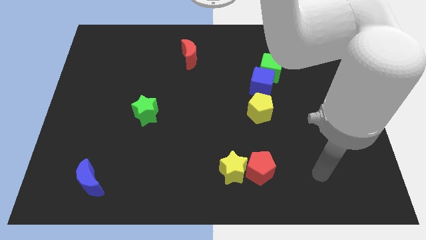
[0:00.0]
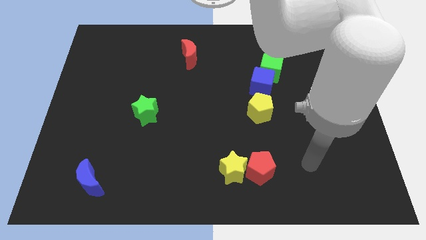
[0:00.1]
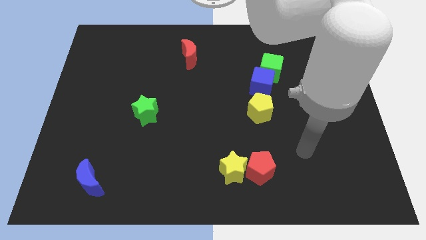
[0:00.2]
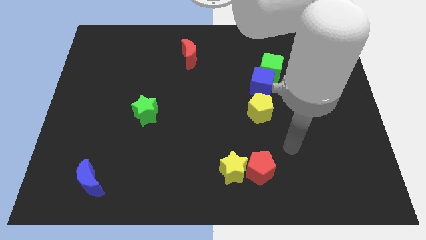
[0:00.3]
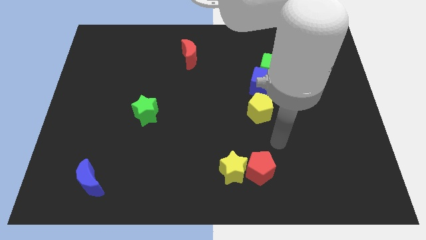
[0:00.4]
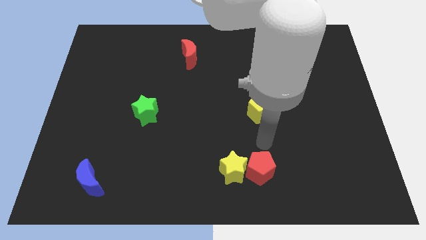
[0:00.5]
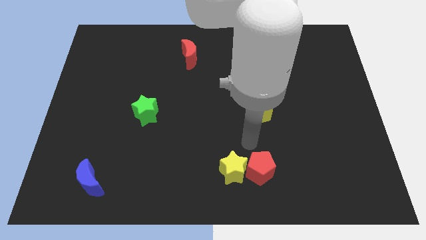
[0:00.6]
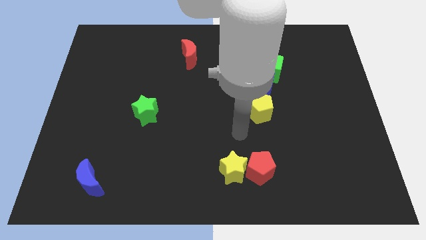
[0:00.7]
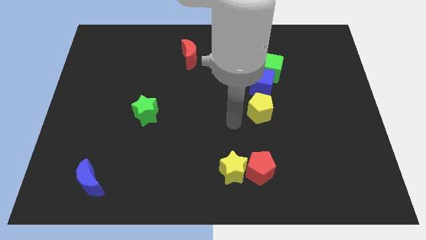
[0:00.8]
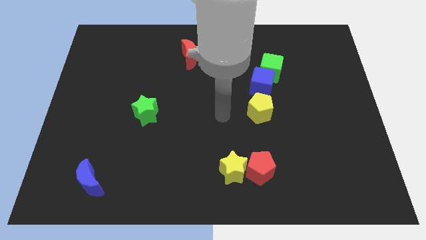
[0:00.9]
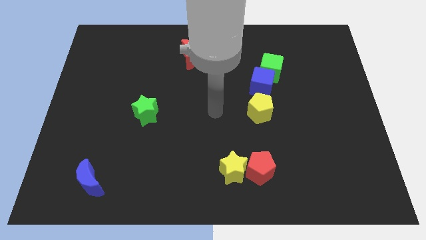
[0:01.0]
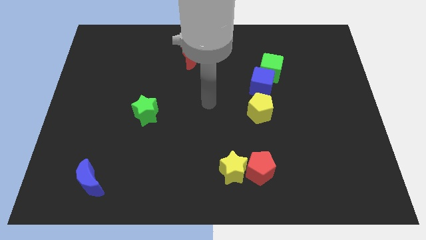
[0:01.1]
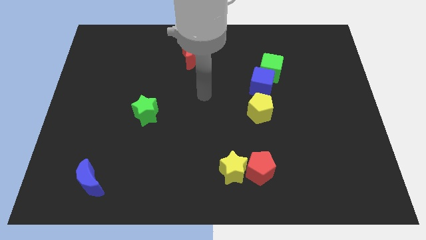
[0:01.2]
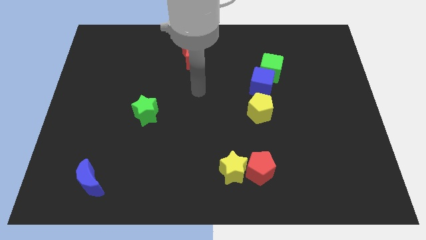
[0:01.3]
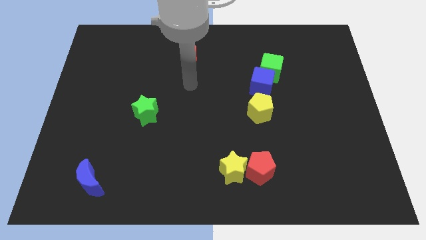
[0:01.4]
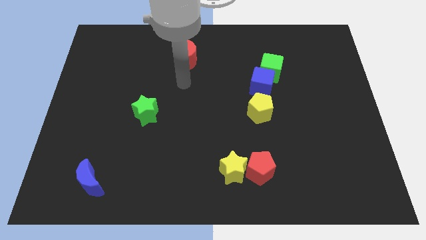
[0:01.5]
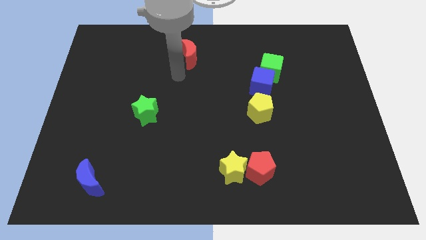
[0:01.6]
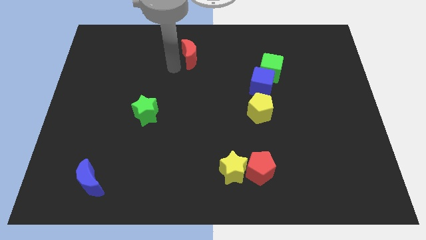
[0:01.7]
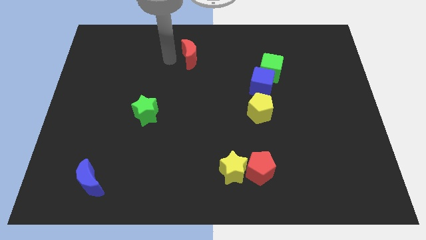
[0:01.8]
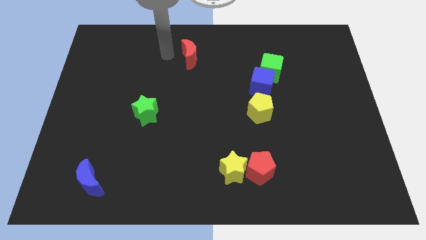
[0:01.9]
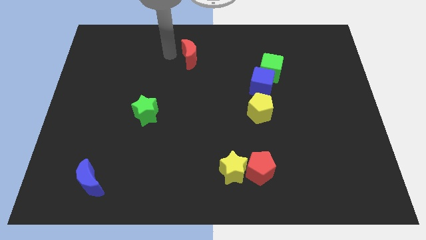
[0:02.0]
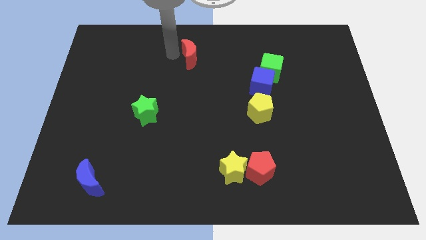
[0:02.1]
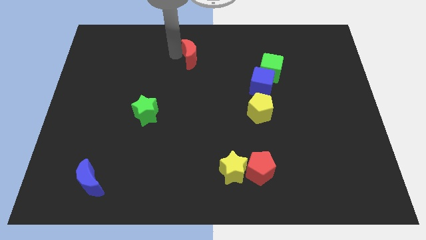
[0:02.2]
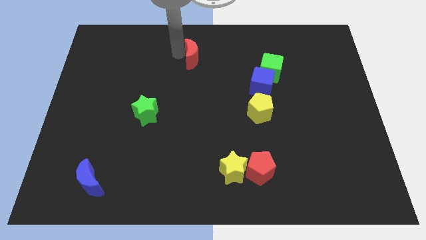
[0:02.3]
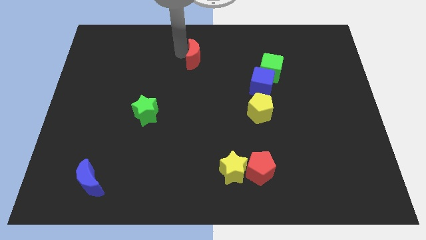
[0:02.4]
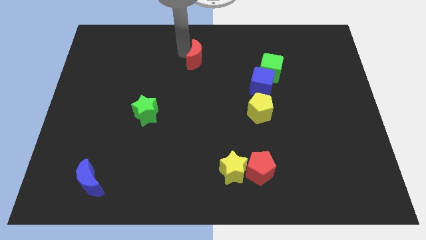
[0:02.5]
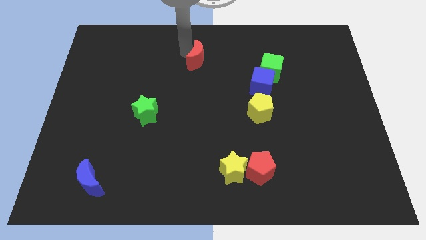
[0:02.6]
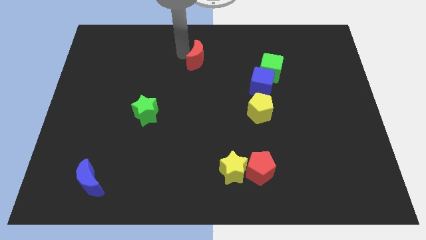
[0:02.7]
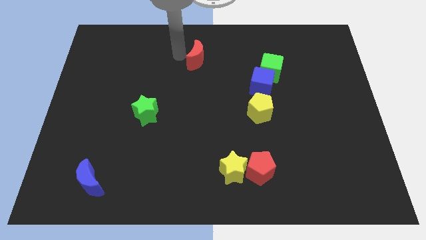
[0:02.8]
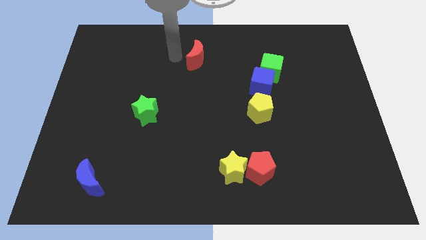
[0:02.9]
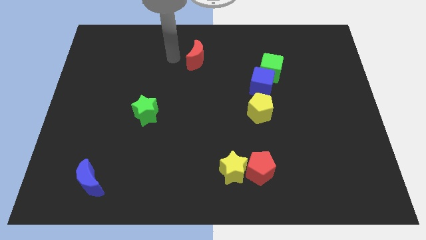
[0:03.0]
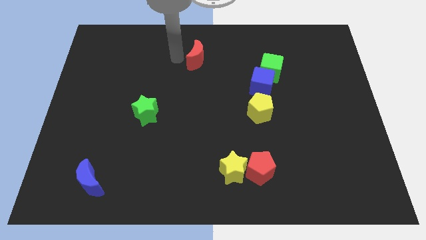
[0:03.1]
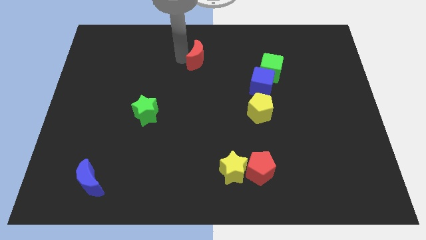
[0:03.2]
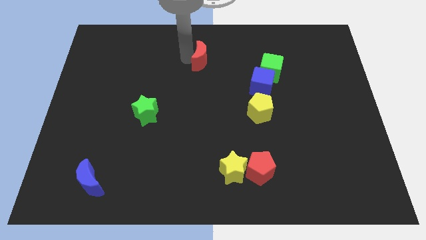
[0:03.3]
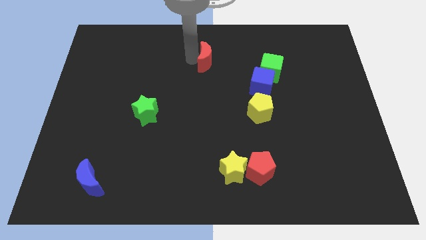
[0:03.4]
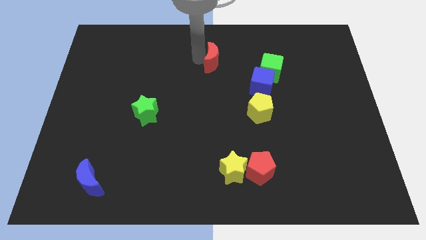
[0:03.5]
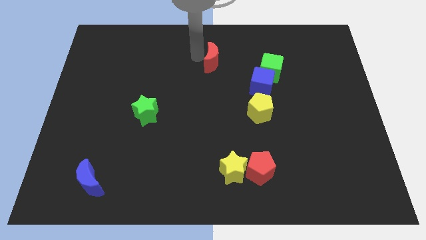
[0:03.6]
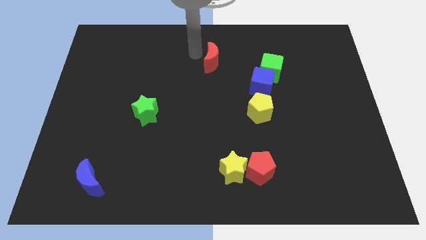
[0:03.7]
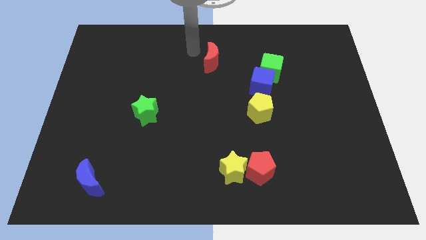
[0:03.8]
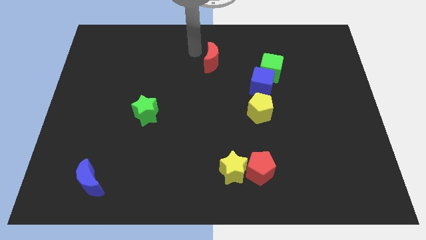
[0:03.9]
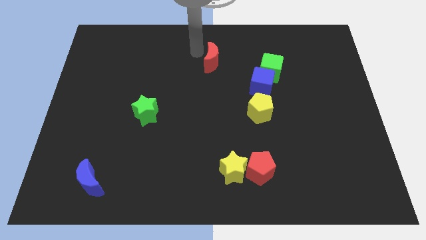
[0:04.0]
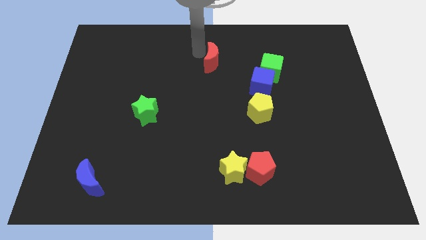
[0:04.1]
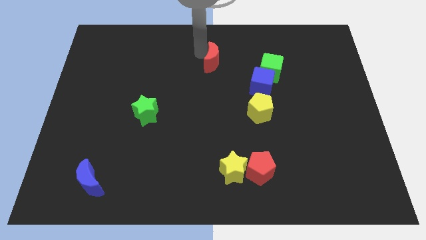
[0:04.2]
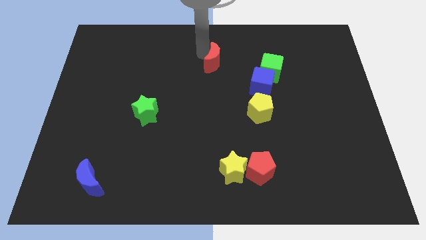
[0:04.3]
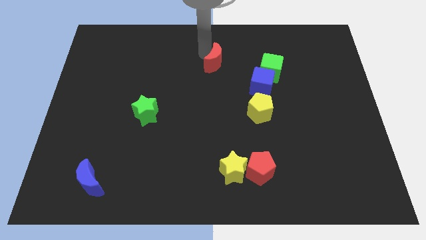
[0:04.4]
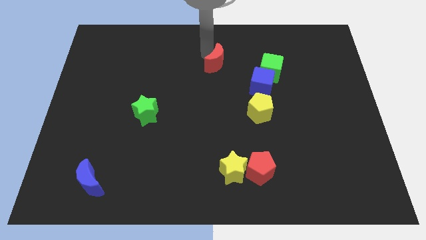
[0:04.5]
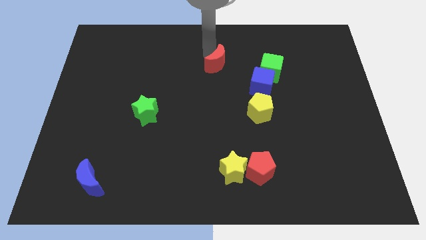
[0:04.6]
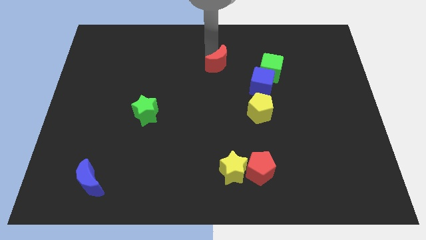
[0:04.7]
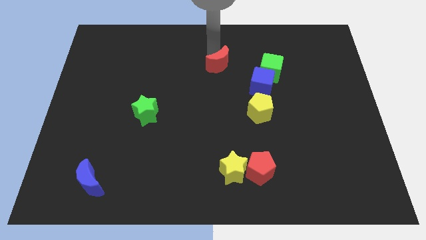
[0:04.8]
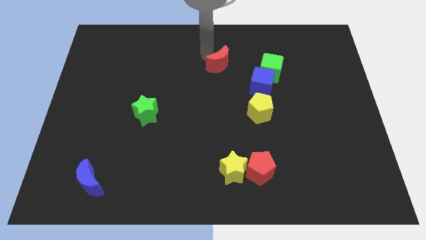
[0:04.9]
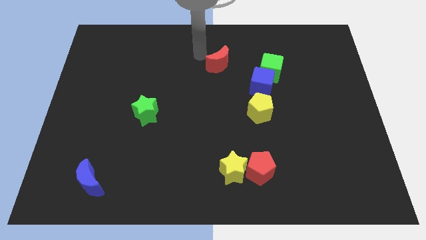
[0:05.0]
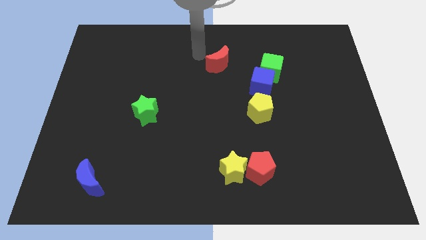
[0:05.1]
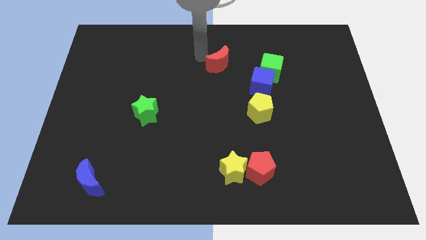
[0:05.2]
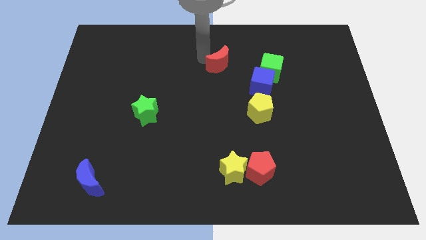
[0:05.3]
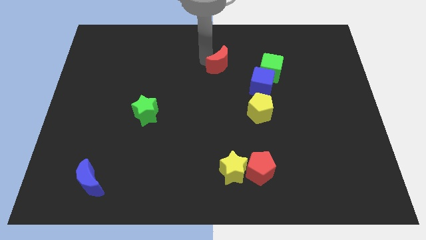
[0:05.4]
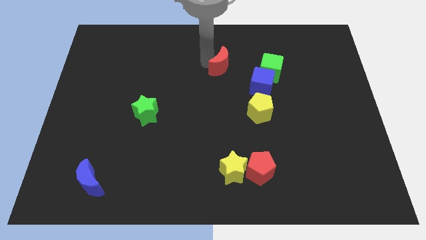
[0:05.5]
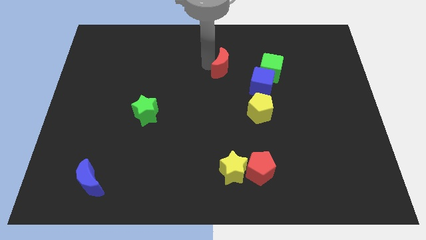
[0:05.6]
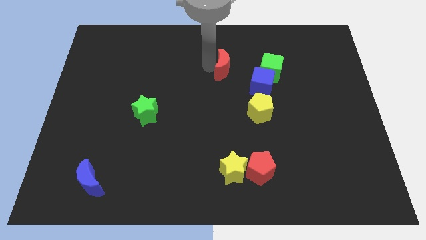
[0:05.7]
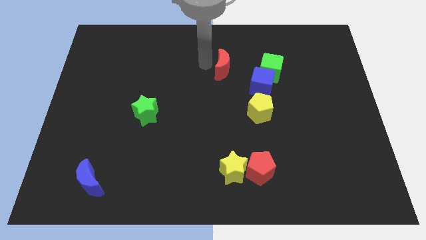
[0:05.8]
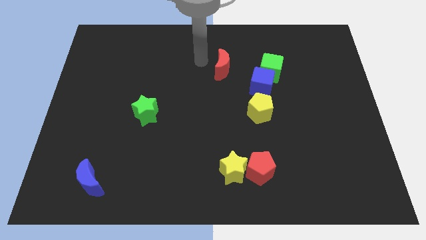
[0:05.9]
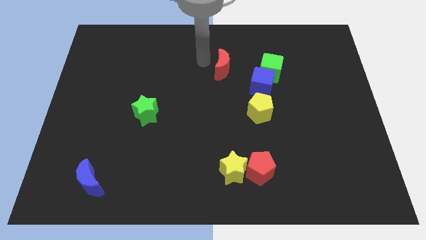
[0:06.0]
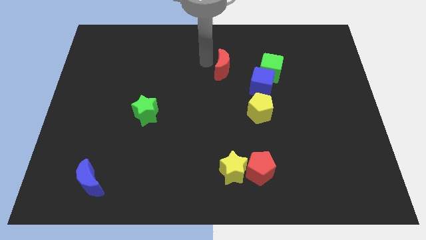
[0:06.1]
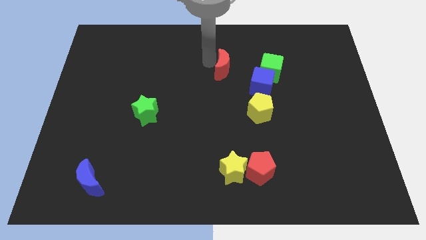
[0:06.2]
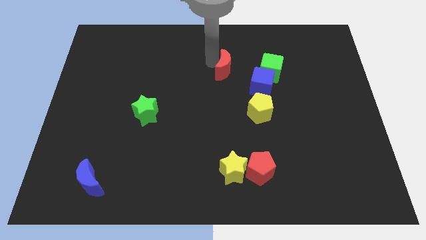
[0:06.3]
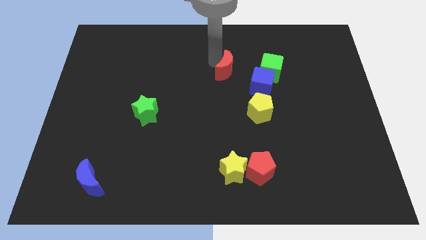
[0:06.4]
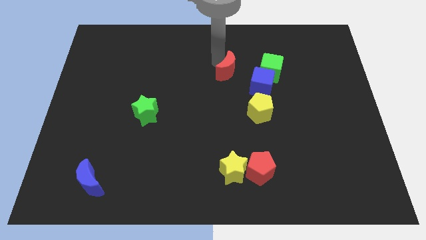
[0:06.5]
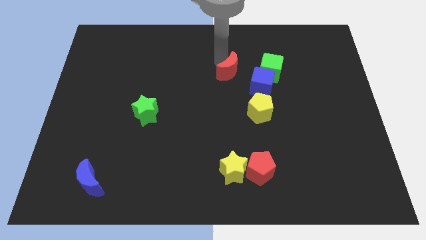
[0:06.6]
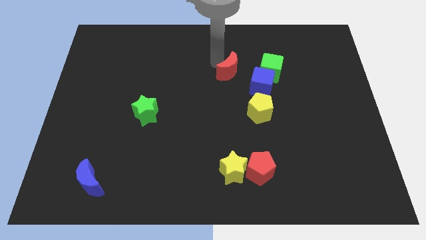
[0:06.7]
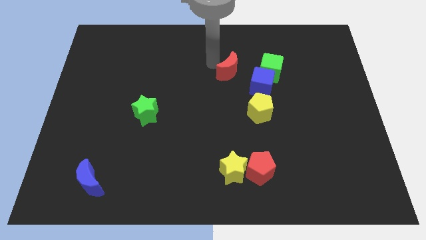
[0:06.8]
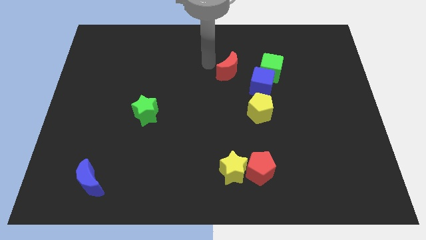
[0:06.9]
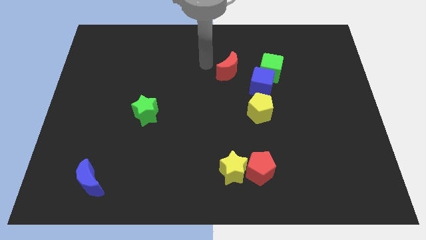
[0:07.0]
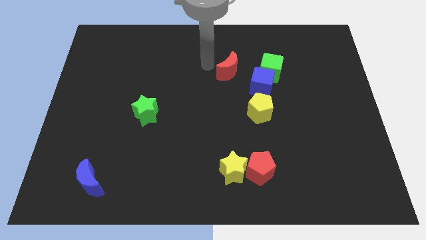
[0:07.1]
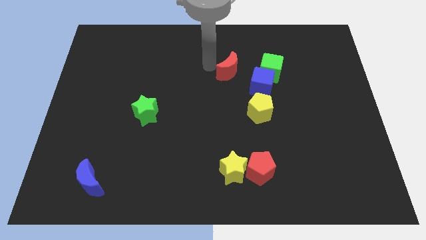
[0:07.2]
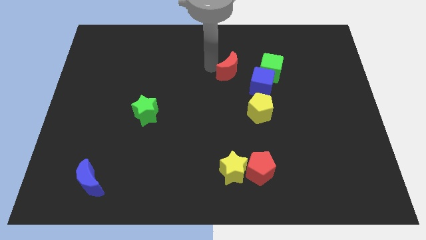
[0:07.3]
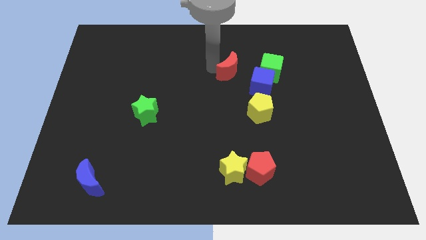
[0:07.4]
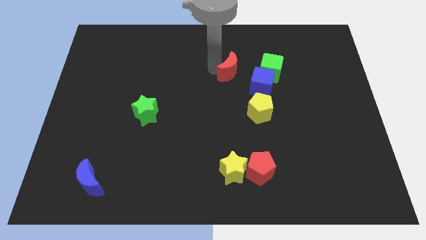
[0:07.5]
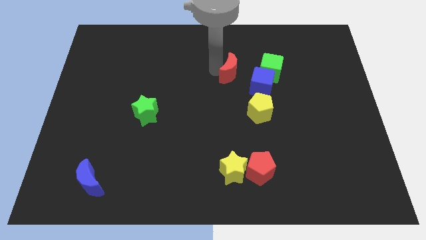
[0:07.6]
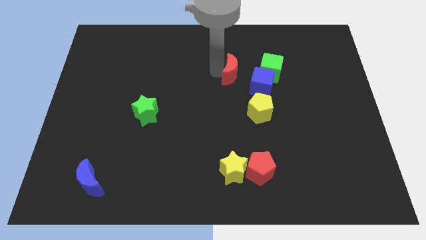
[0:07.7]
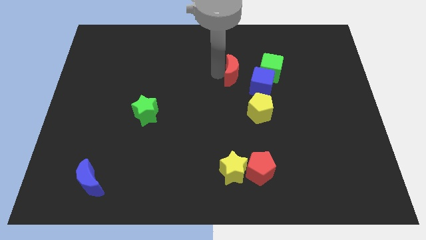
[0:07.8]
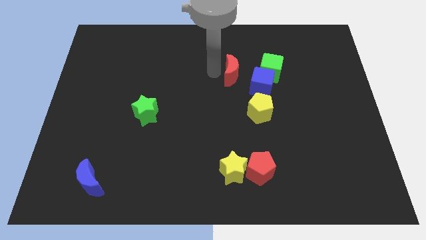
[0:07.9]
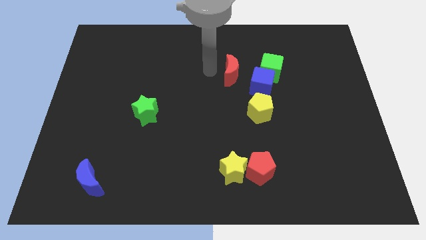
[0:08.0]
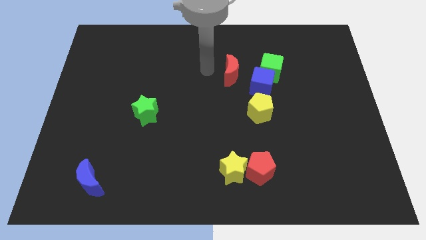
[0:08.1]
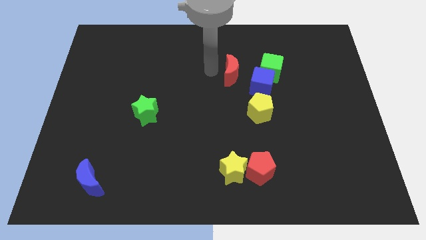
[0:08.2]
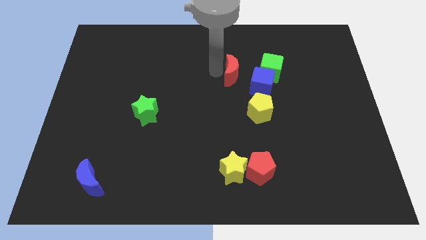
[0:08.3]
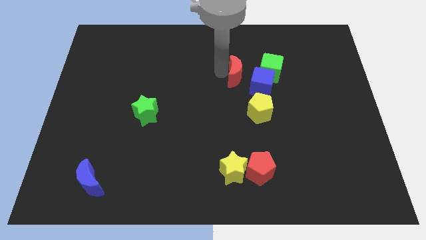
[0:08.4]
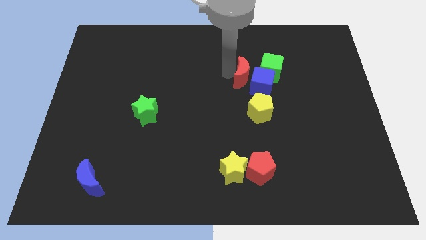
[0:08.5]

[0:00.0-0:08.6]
slide the red moon towards the blue cube
